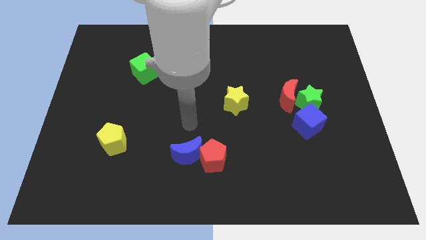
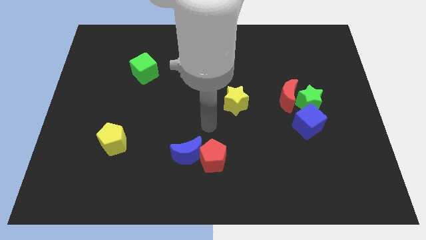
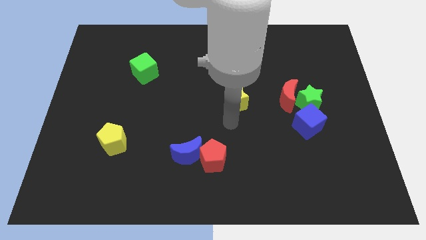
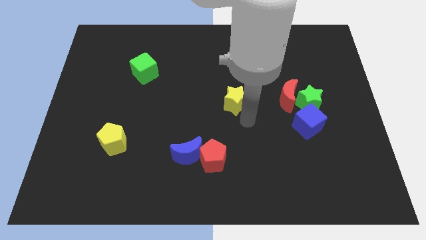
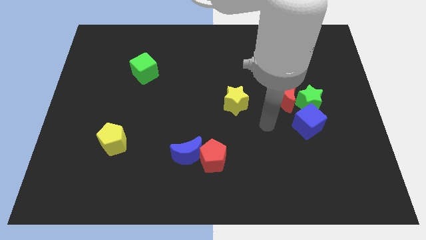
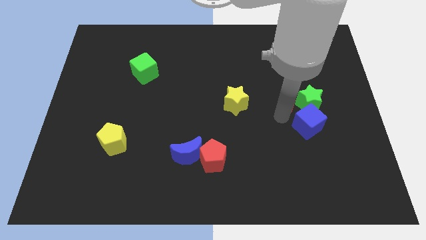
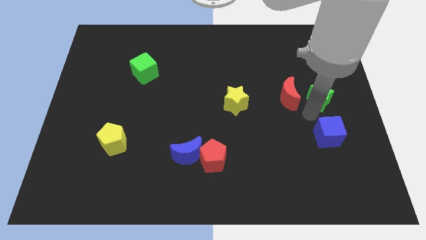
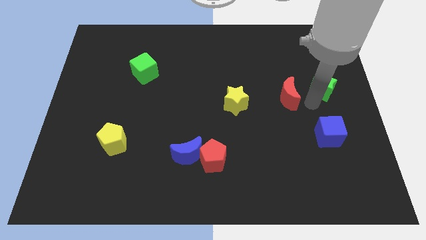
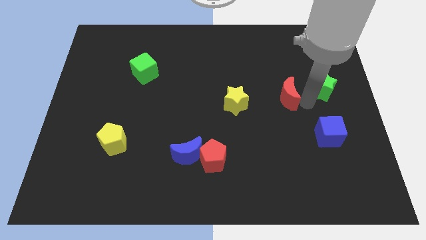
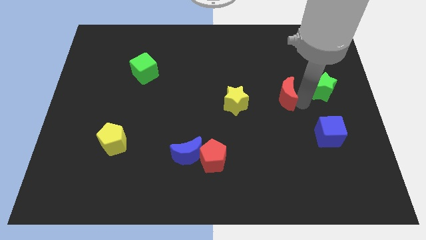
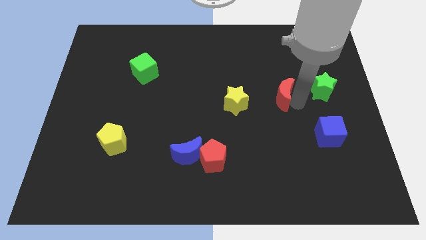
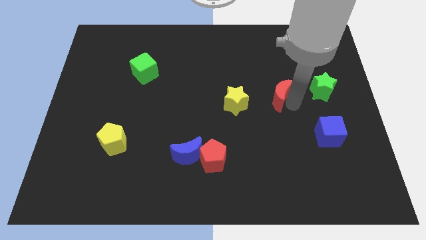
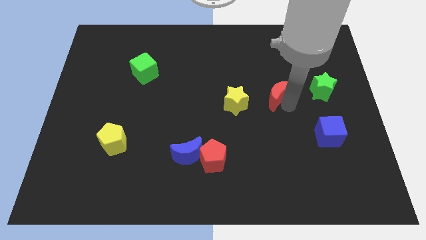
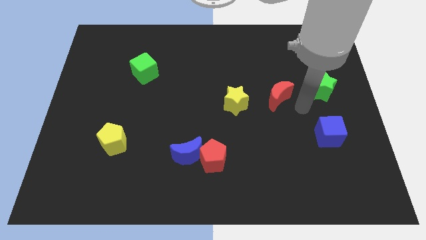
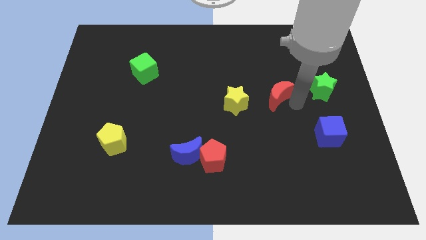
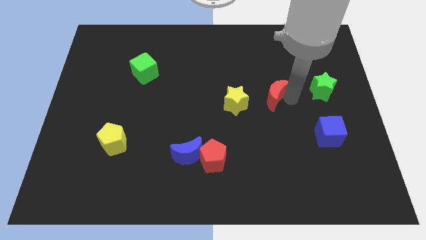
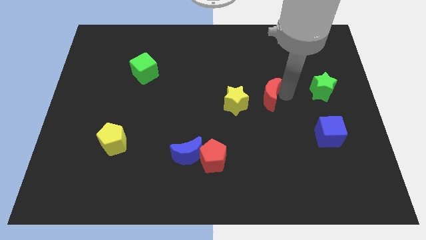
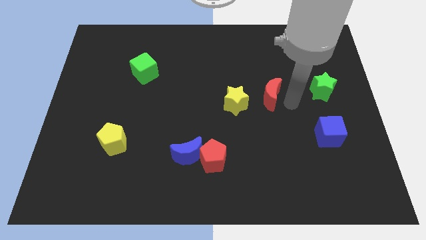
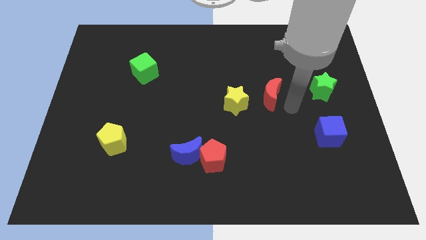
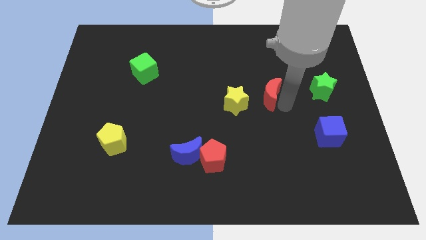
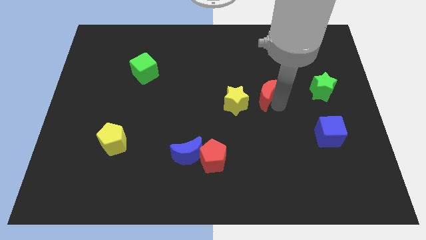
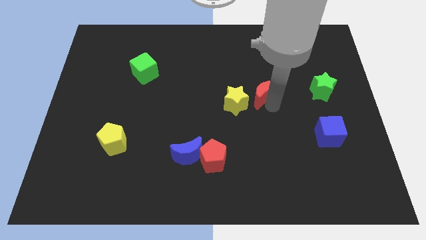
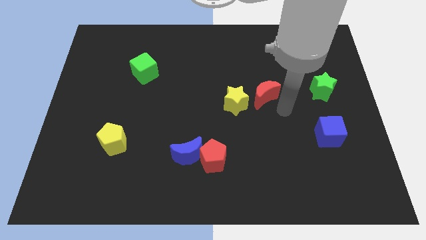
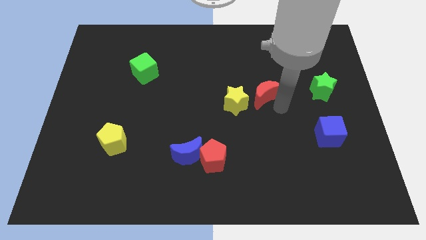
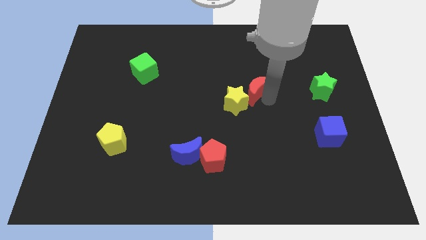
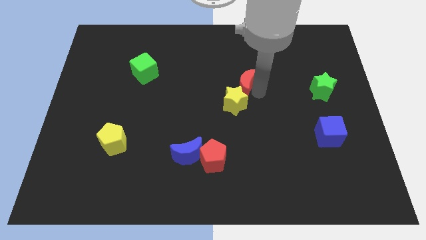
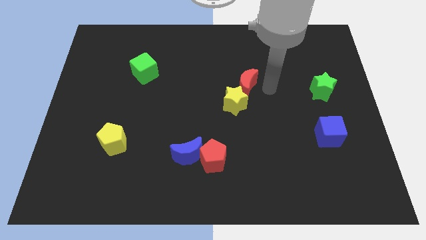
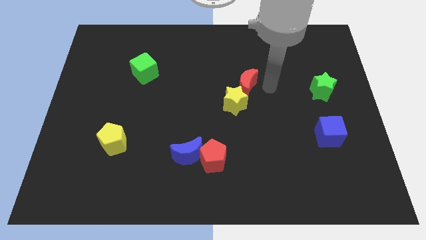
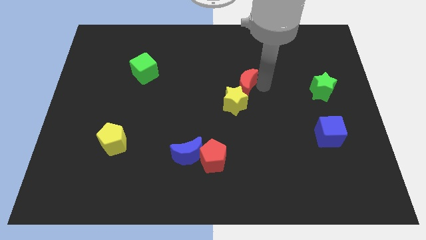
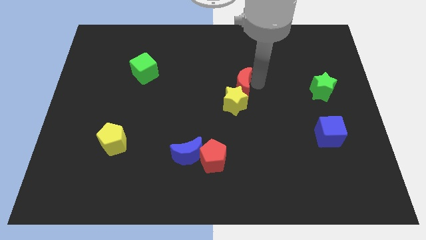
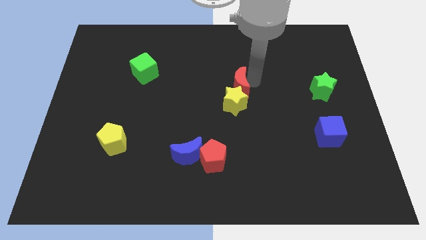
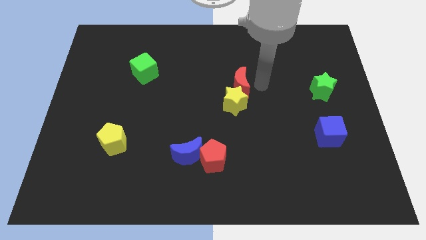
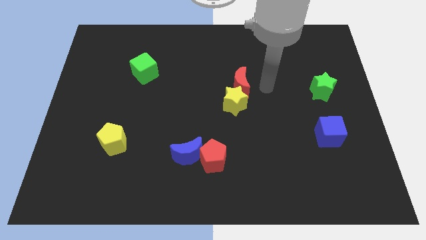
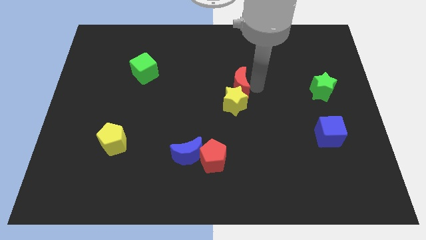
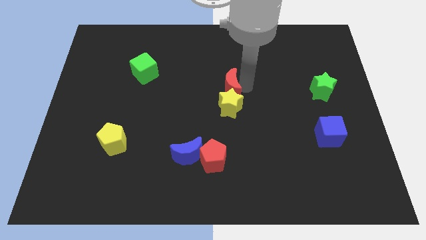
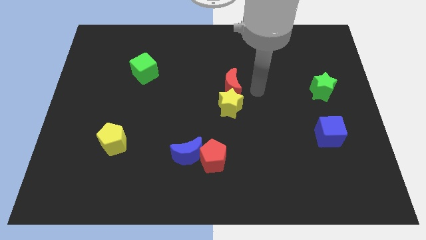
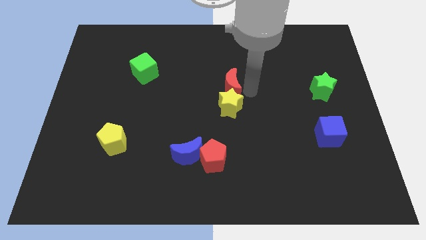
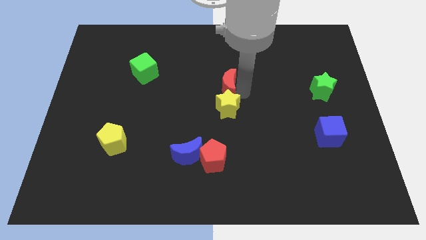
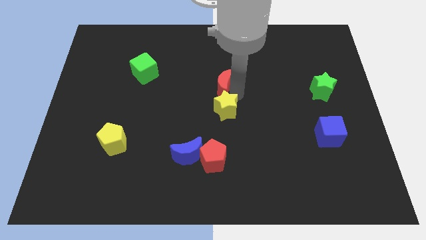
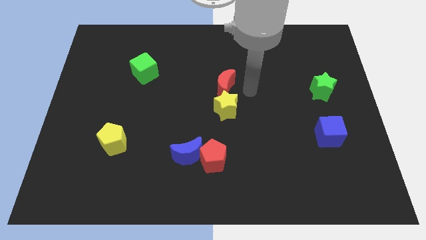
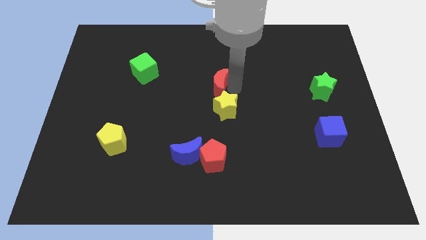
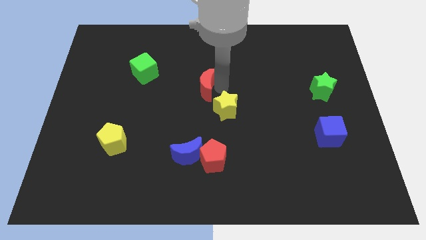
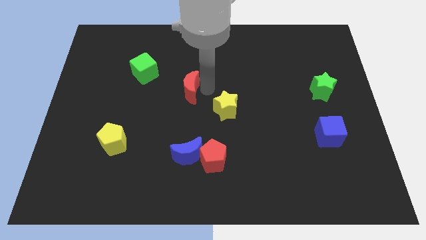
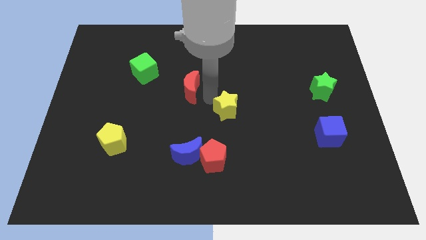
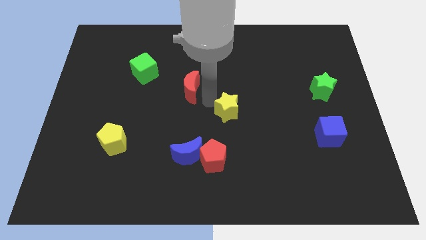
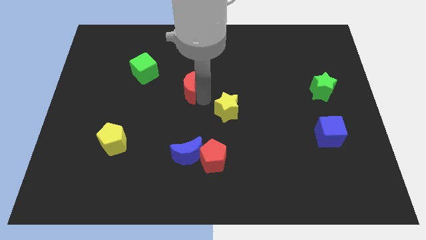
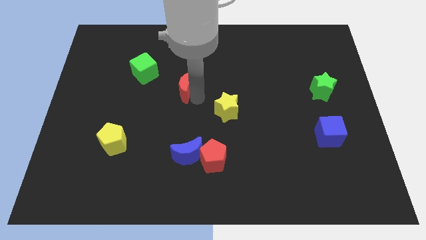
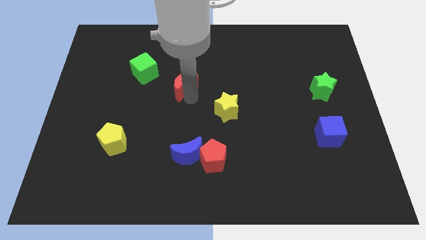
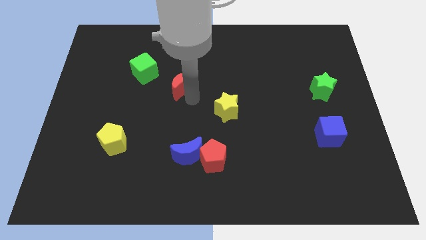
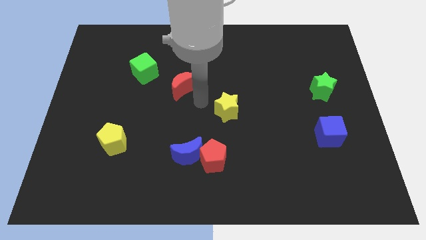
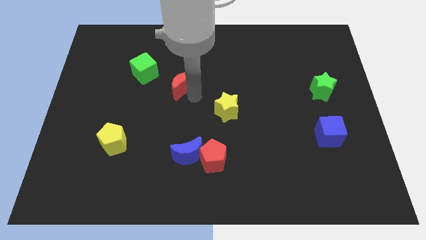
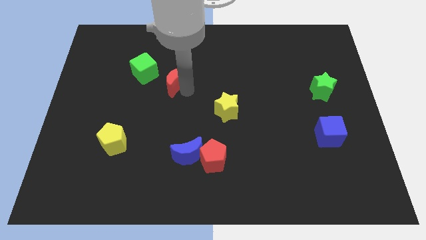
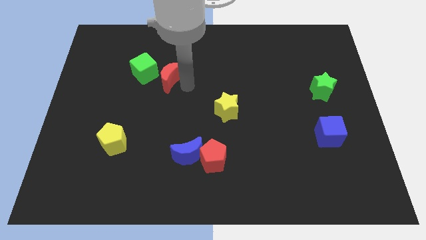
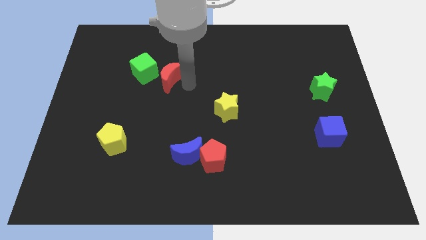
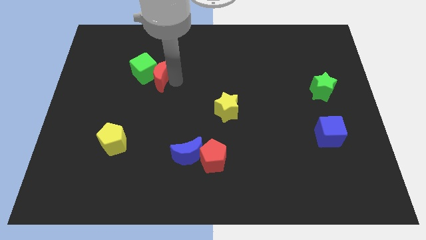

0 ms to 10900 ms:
move the red moon towards the green cube

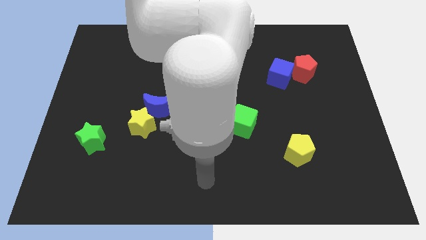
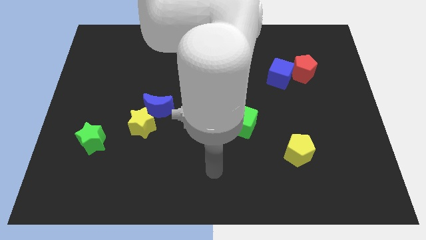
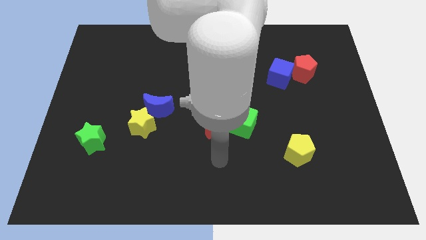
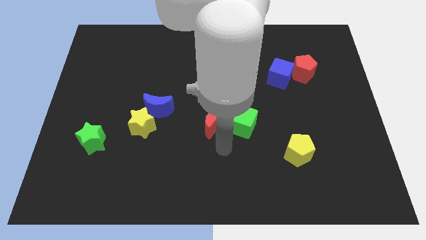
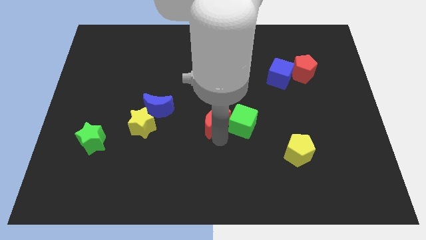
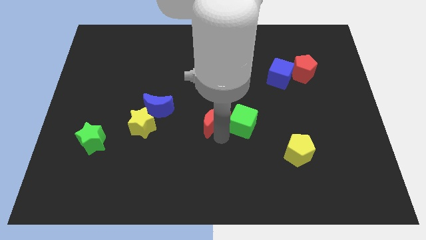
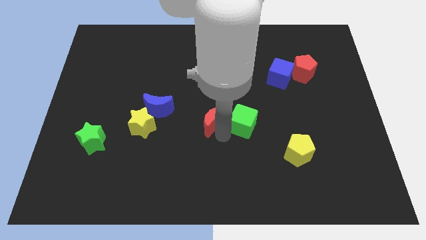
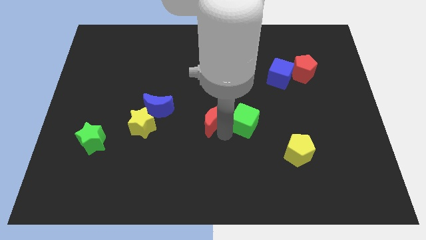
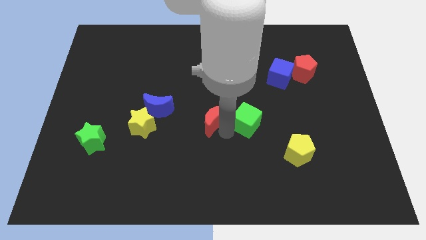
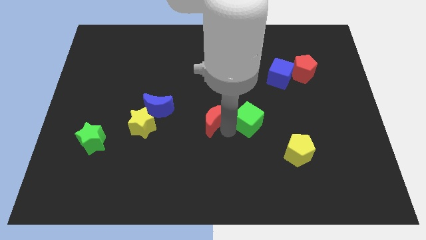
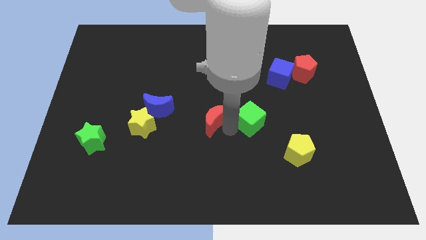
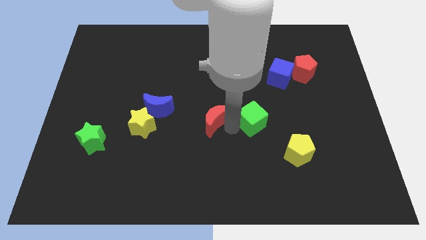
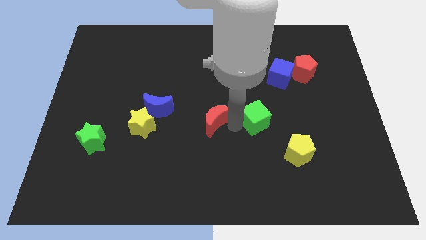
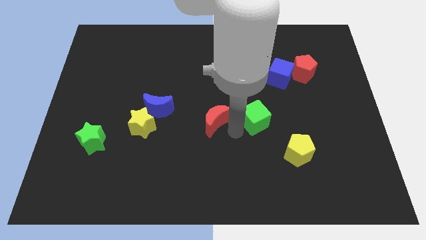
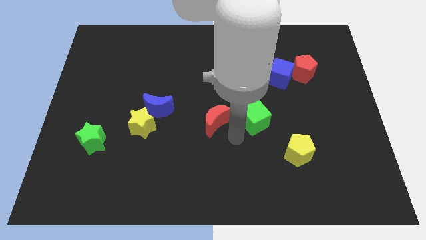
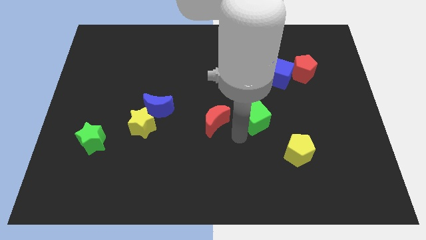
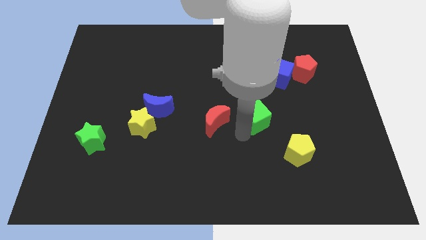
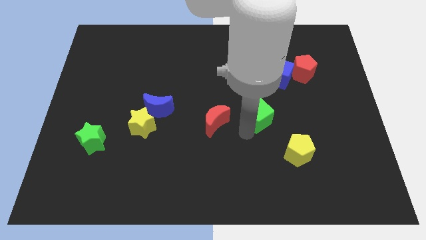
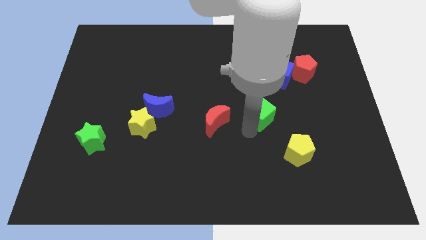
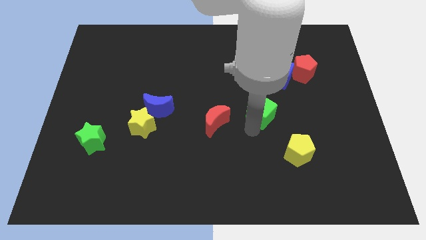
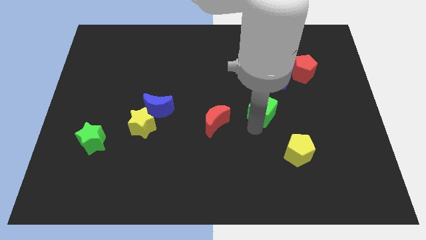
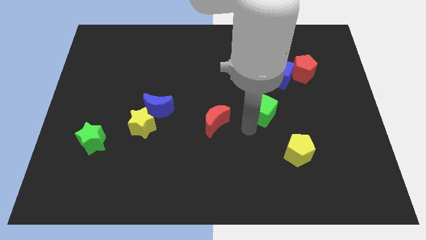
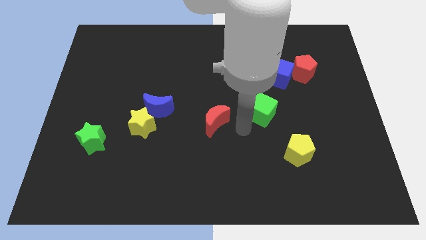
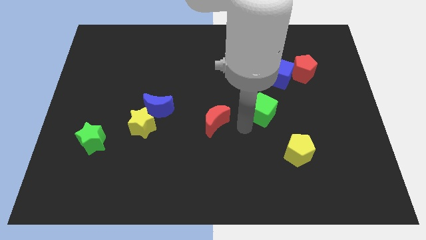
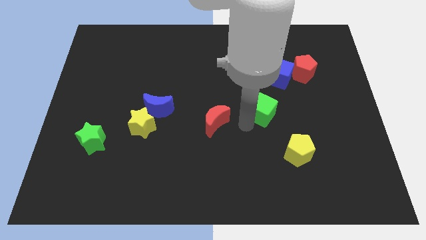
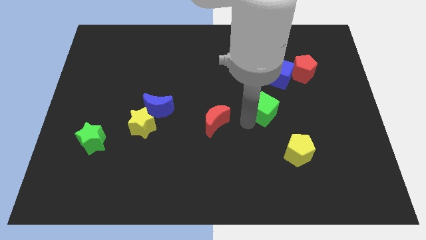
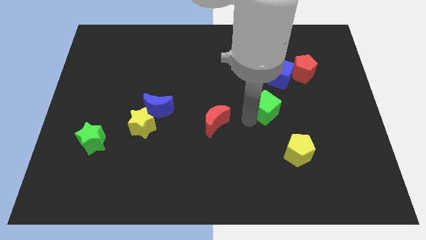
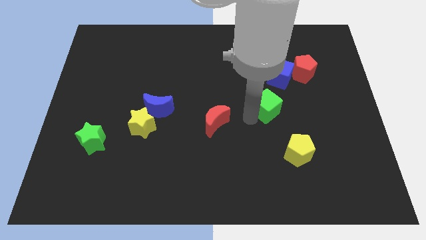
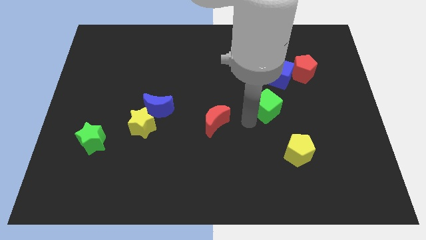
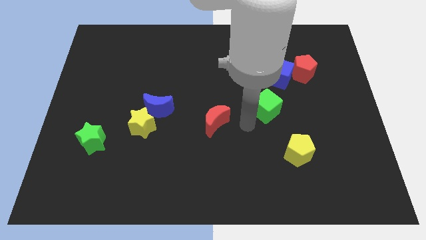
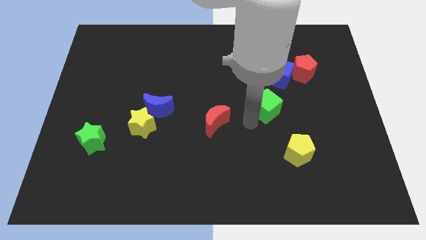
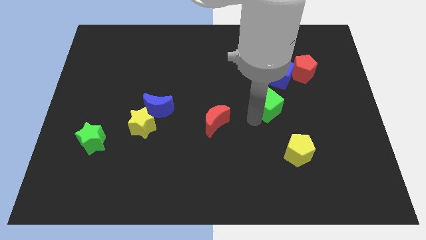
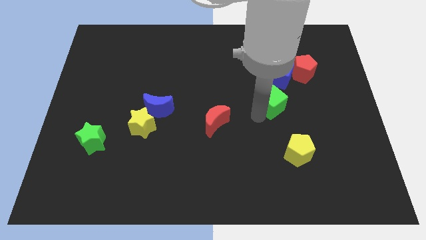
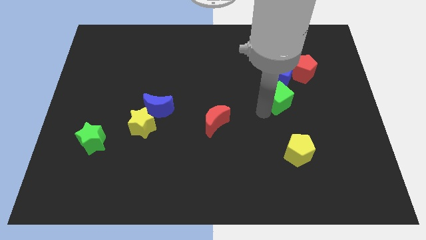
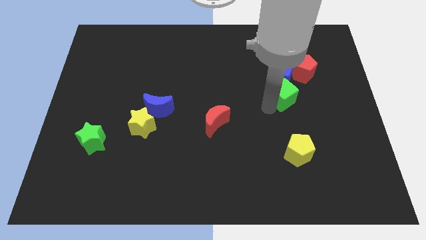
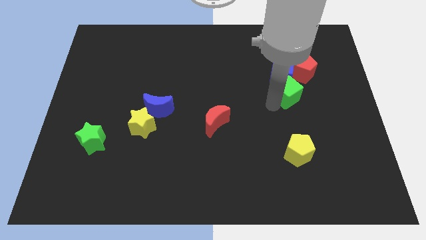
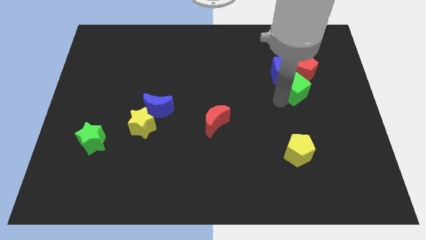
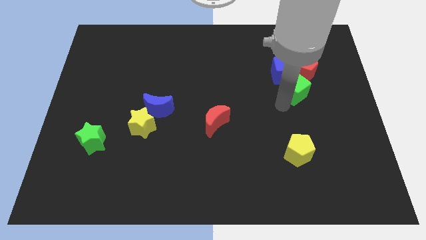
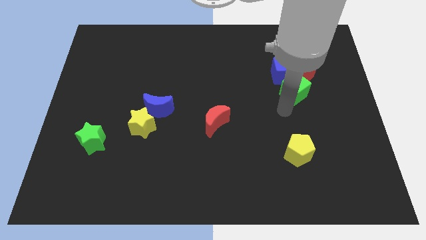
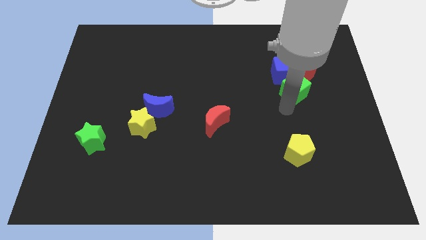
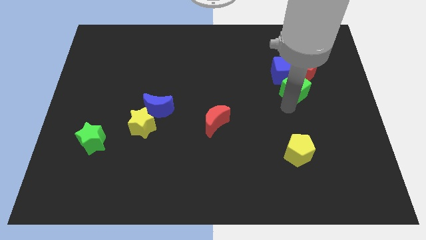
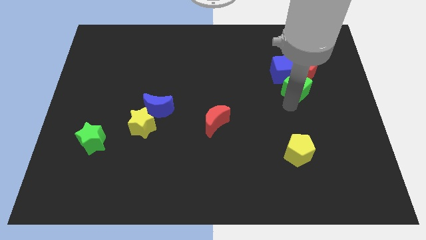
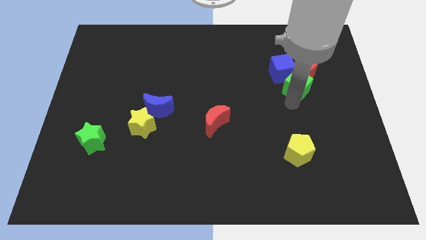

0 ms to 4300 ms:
push the green cube to the red pentagon
